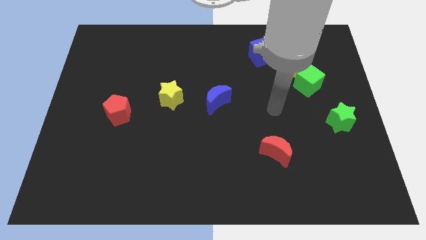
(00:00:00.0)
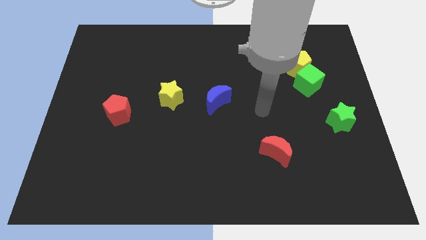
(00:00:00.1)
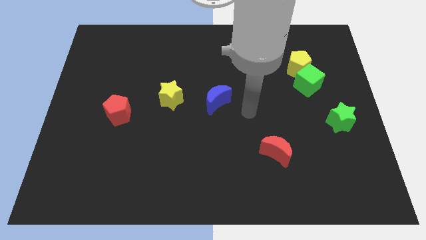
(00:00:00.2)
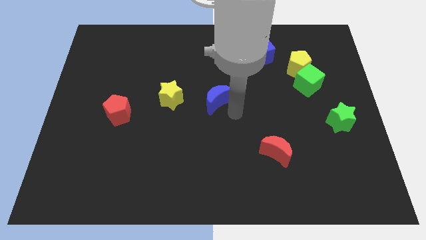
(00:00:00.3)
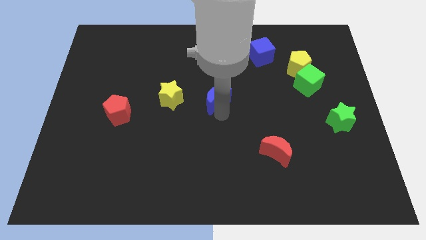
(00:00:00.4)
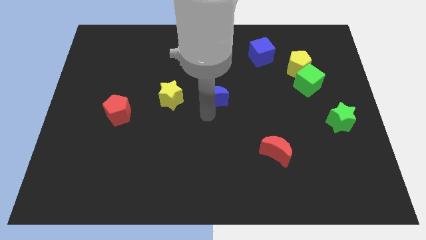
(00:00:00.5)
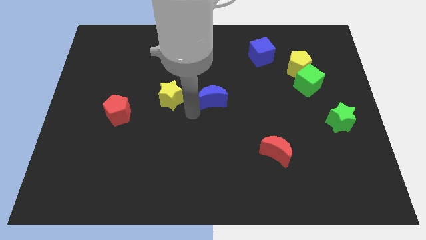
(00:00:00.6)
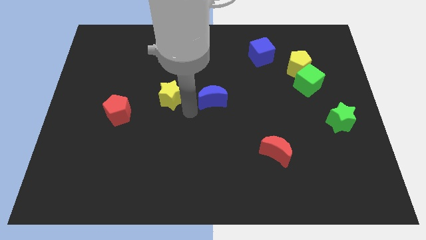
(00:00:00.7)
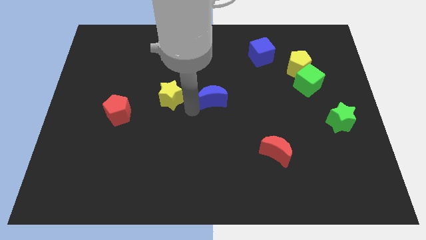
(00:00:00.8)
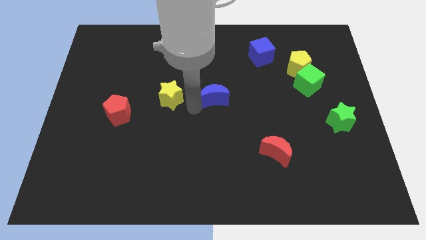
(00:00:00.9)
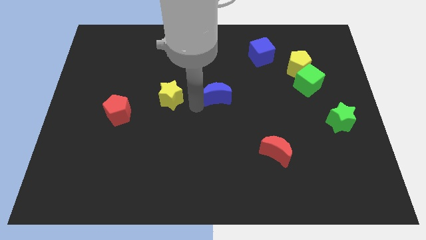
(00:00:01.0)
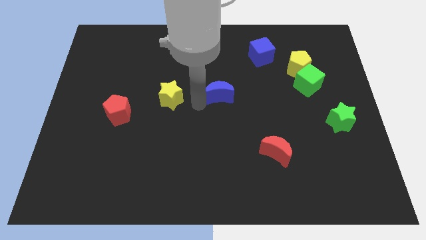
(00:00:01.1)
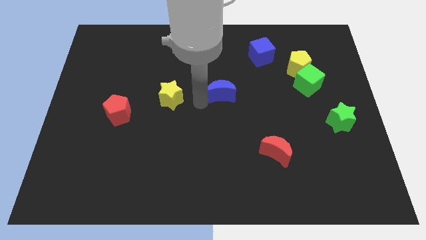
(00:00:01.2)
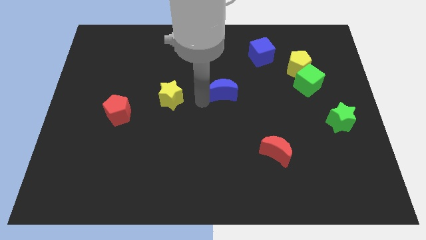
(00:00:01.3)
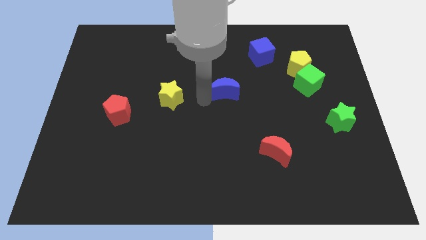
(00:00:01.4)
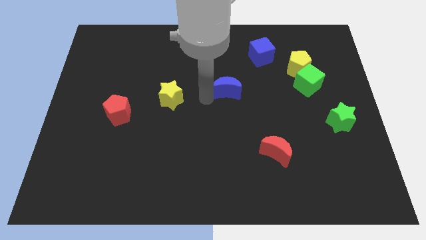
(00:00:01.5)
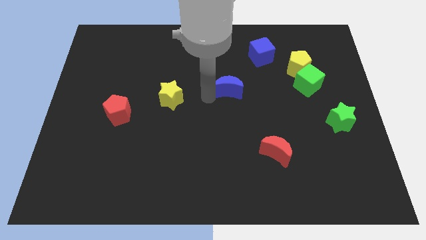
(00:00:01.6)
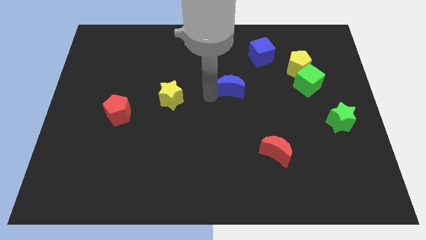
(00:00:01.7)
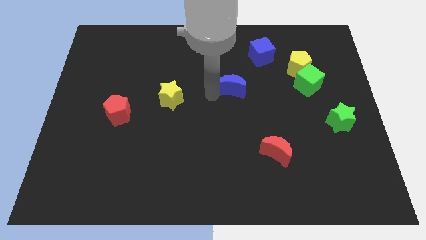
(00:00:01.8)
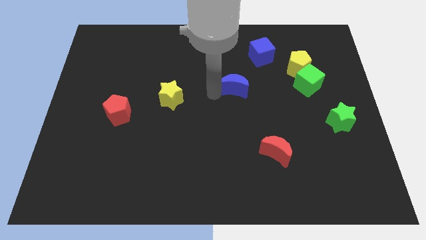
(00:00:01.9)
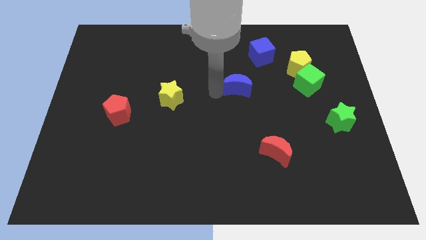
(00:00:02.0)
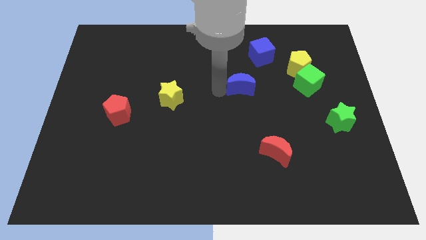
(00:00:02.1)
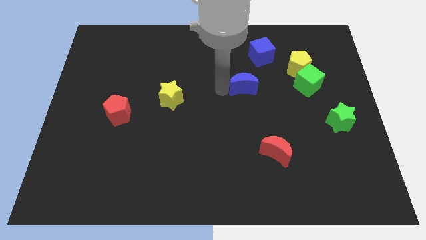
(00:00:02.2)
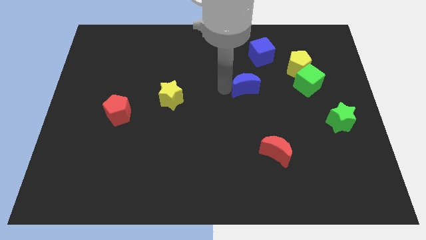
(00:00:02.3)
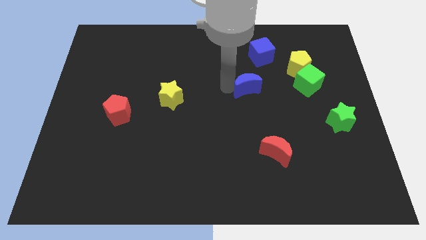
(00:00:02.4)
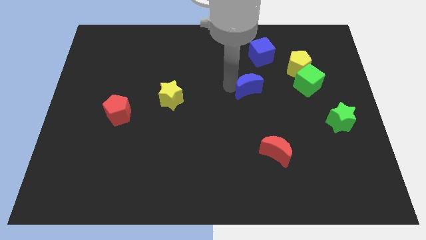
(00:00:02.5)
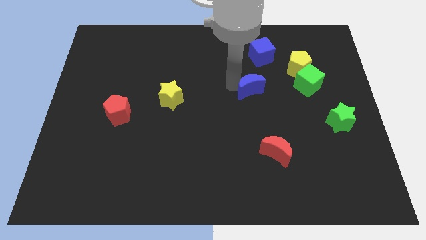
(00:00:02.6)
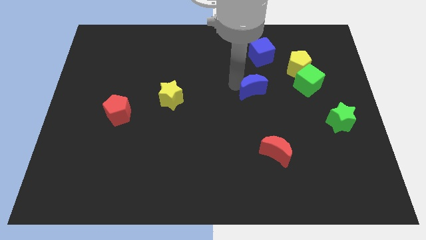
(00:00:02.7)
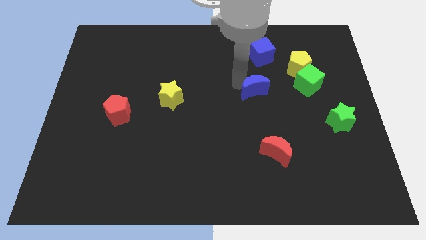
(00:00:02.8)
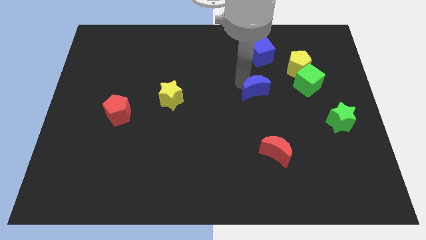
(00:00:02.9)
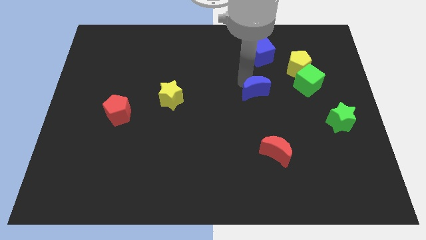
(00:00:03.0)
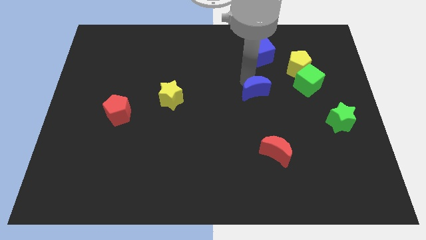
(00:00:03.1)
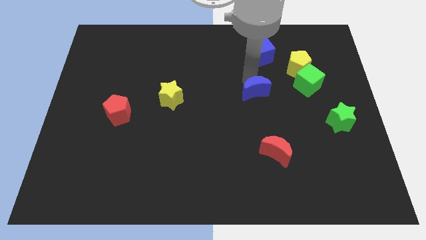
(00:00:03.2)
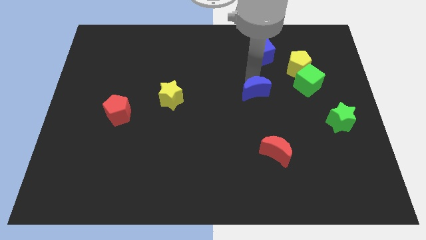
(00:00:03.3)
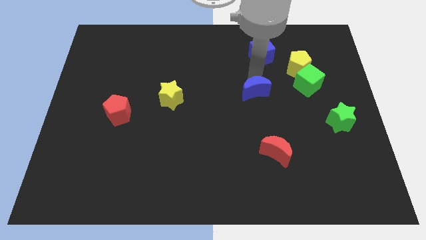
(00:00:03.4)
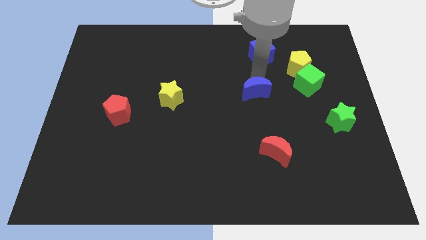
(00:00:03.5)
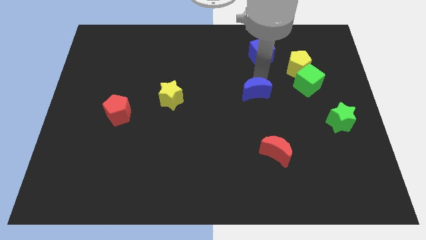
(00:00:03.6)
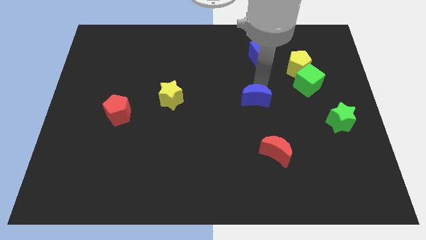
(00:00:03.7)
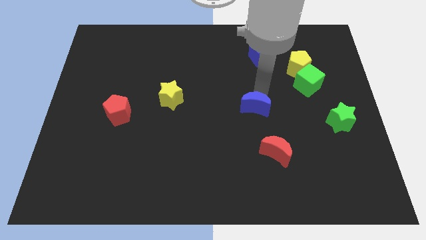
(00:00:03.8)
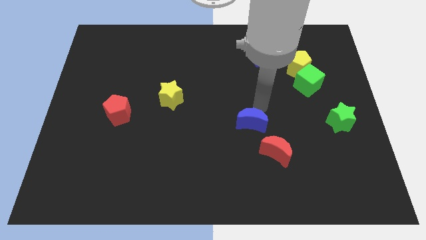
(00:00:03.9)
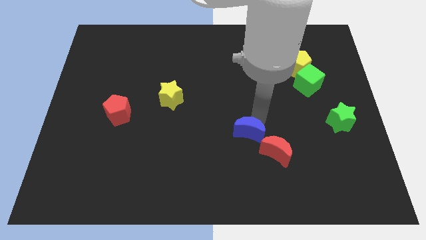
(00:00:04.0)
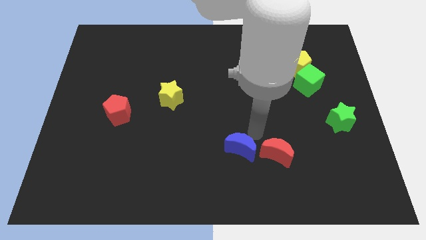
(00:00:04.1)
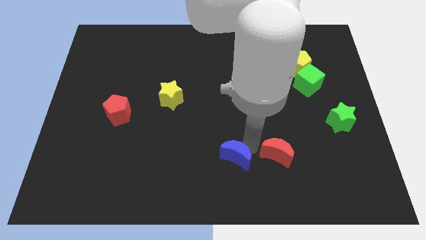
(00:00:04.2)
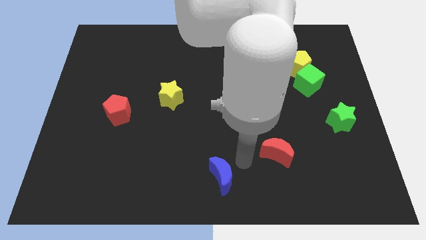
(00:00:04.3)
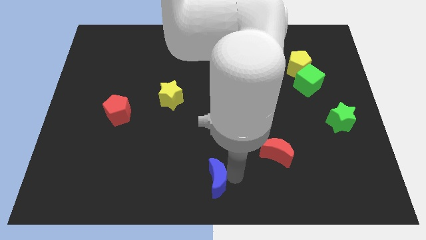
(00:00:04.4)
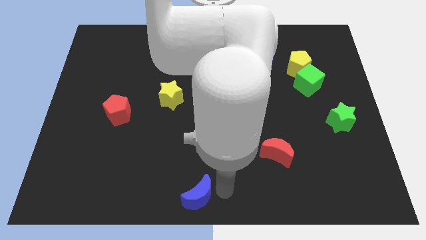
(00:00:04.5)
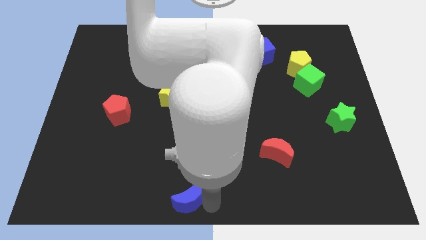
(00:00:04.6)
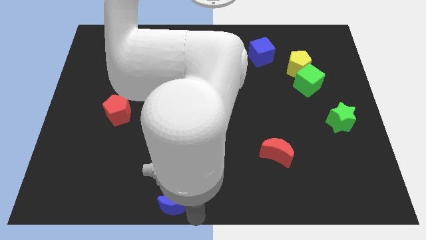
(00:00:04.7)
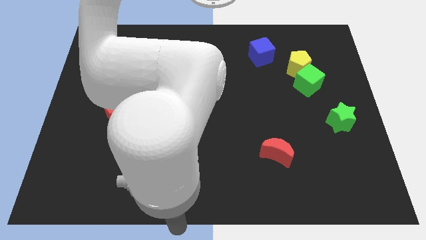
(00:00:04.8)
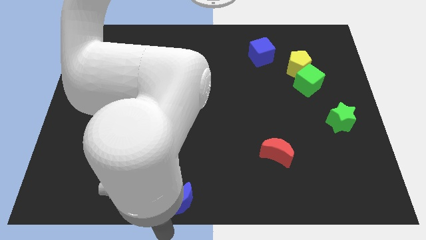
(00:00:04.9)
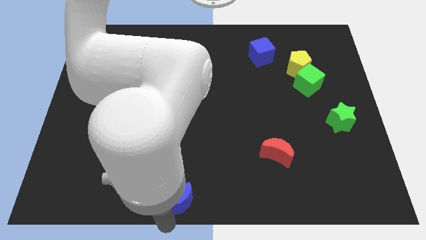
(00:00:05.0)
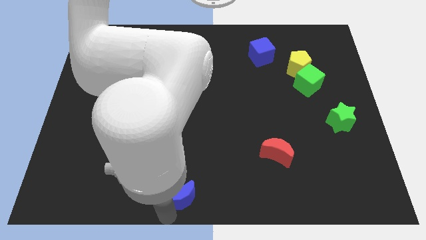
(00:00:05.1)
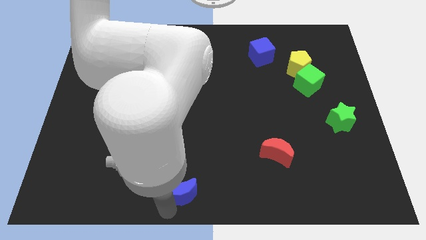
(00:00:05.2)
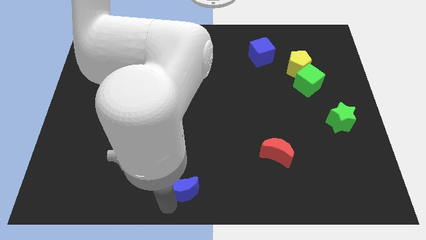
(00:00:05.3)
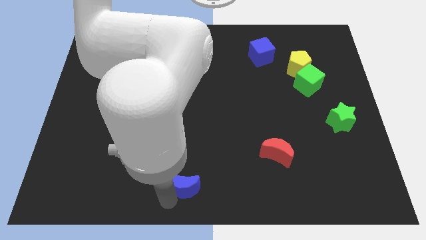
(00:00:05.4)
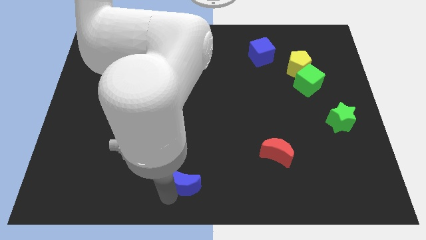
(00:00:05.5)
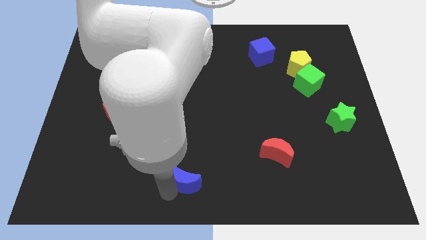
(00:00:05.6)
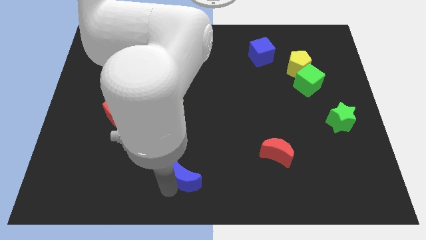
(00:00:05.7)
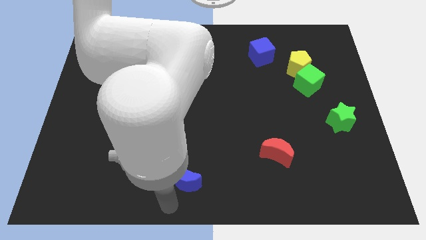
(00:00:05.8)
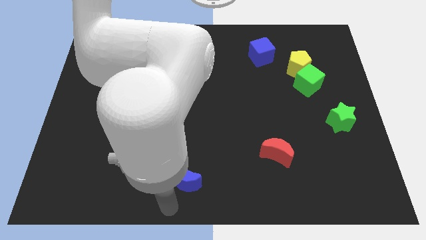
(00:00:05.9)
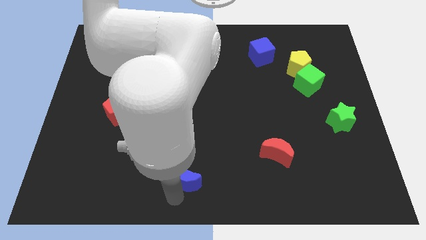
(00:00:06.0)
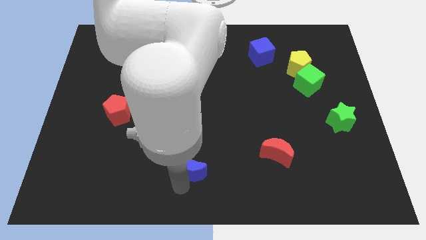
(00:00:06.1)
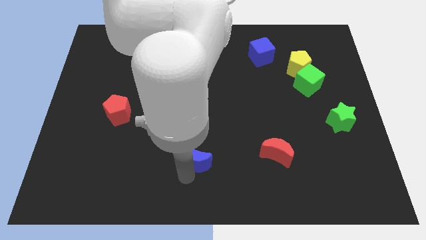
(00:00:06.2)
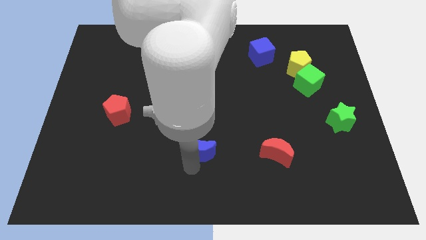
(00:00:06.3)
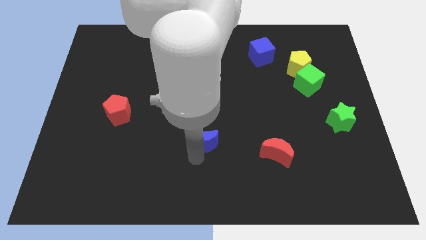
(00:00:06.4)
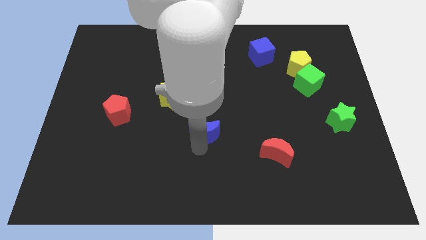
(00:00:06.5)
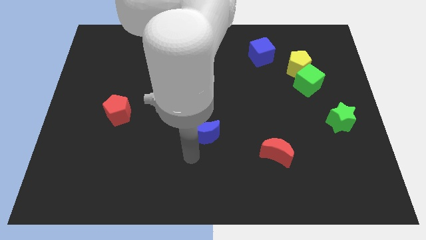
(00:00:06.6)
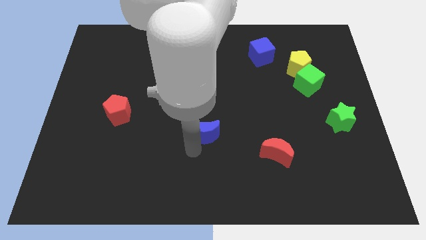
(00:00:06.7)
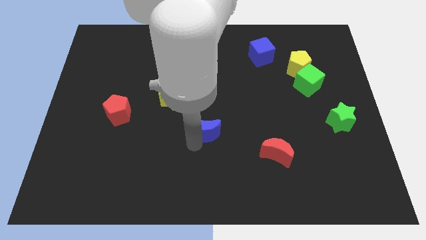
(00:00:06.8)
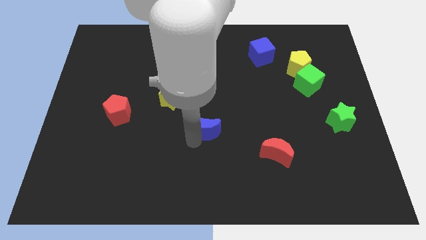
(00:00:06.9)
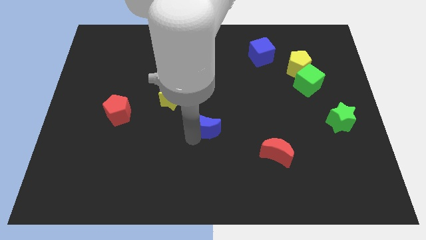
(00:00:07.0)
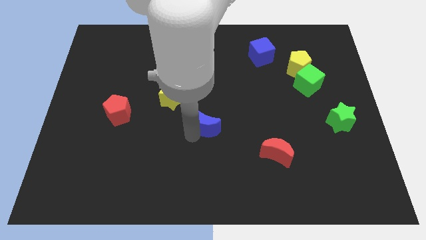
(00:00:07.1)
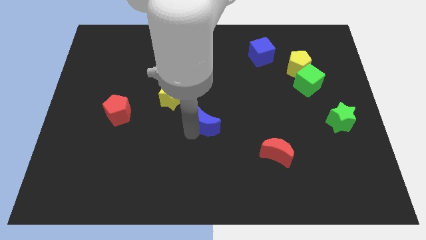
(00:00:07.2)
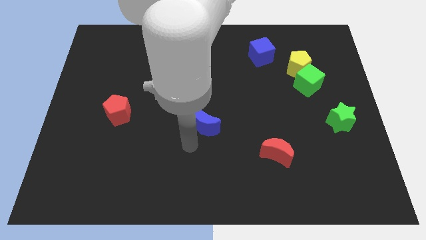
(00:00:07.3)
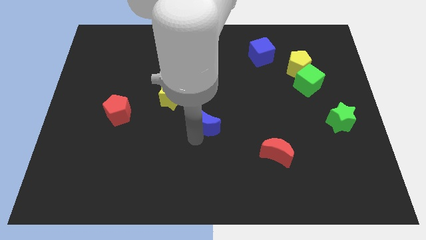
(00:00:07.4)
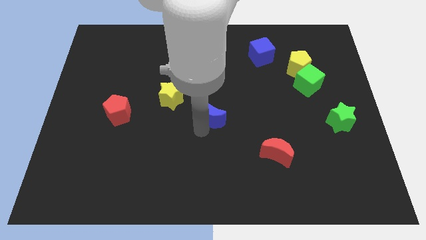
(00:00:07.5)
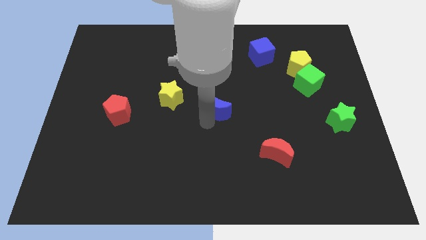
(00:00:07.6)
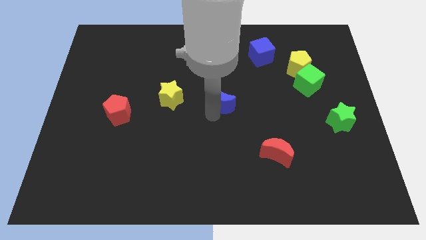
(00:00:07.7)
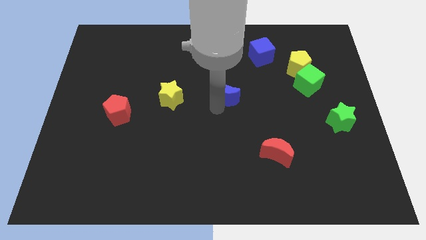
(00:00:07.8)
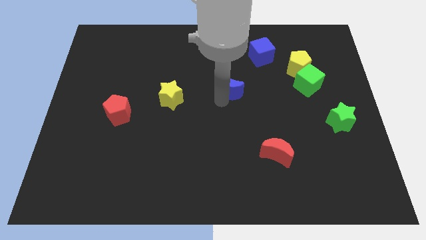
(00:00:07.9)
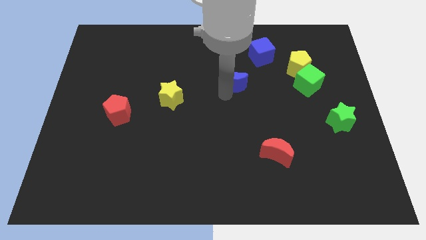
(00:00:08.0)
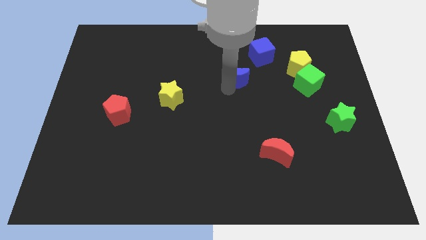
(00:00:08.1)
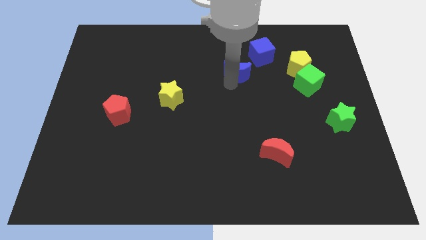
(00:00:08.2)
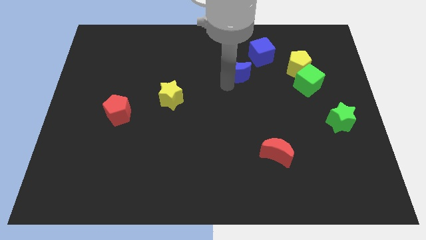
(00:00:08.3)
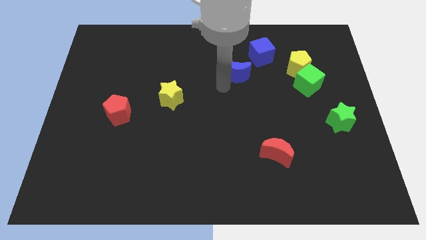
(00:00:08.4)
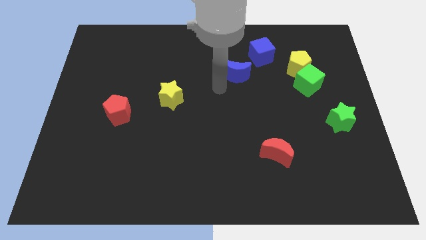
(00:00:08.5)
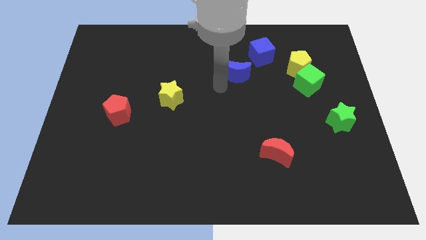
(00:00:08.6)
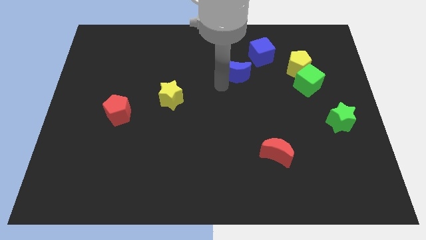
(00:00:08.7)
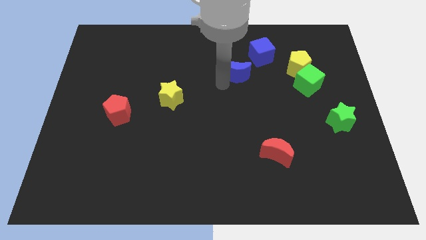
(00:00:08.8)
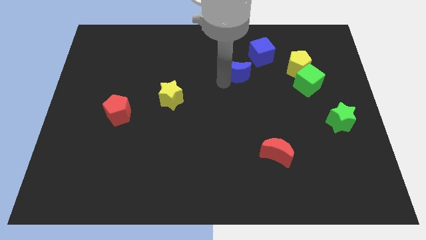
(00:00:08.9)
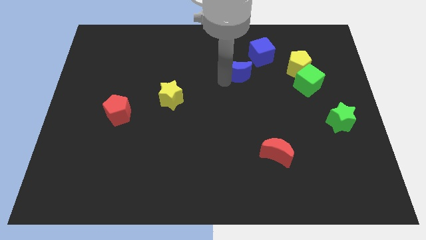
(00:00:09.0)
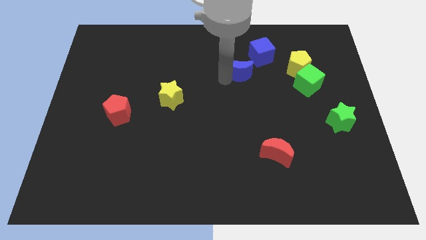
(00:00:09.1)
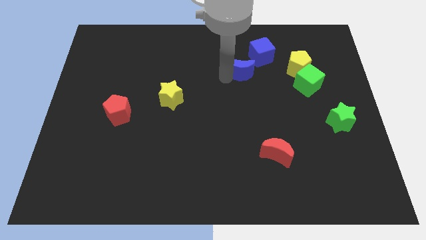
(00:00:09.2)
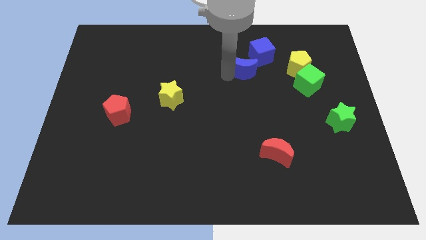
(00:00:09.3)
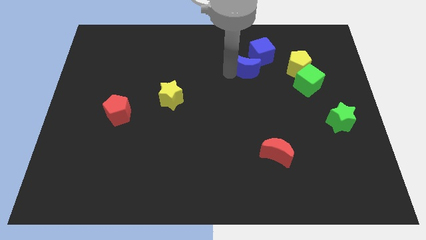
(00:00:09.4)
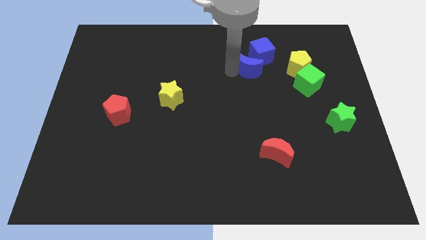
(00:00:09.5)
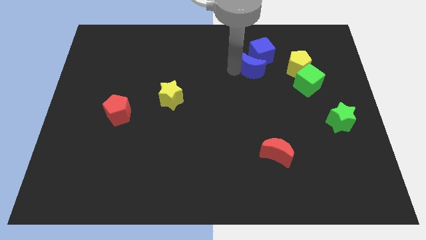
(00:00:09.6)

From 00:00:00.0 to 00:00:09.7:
move the blue moon close to the blue cube
